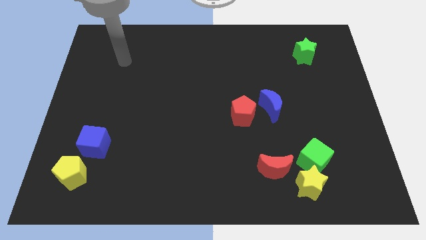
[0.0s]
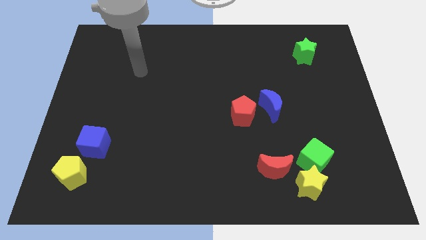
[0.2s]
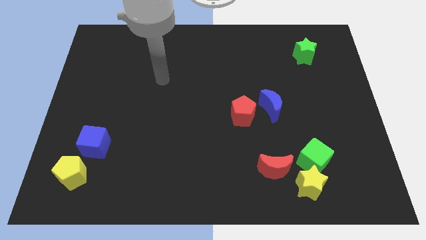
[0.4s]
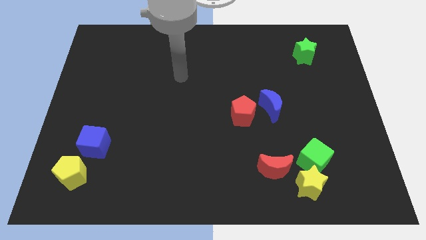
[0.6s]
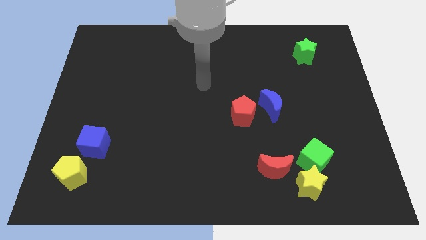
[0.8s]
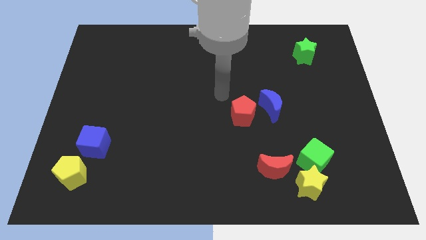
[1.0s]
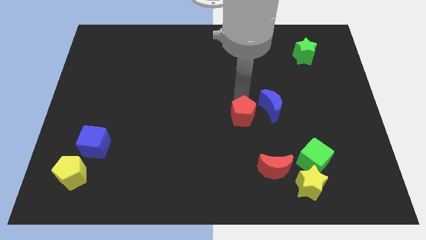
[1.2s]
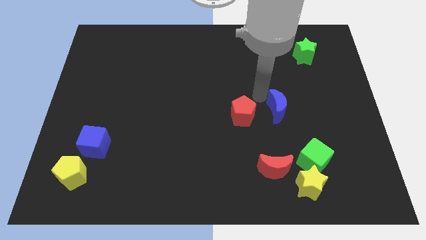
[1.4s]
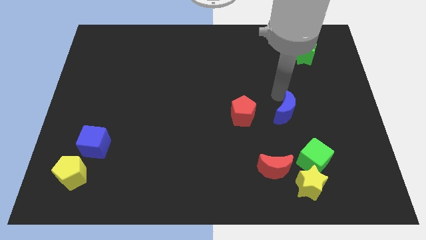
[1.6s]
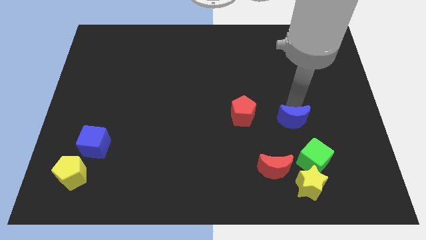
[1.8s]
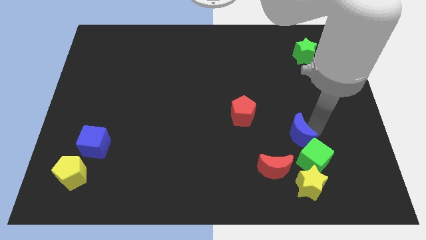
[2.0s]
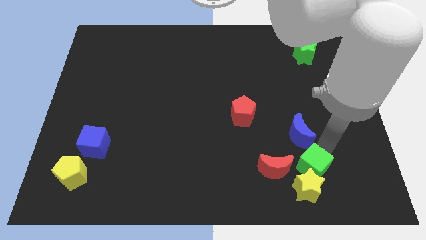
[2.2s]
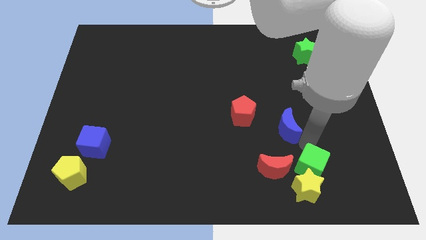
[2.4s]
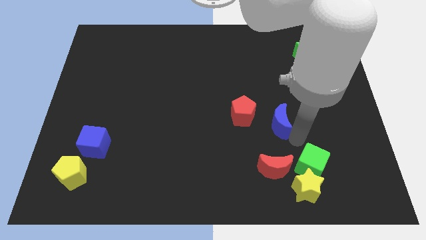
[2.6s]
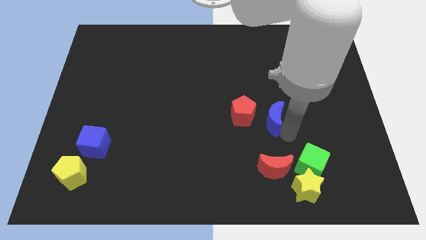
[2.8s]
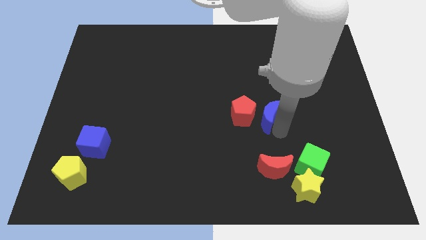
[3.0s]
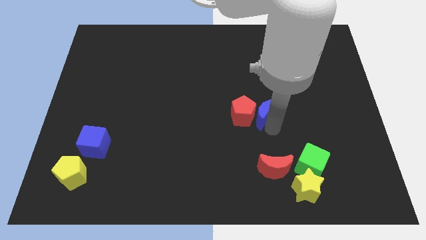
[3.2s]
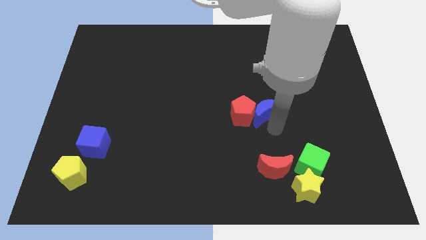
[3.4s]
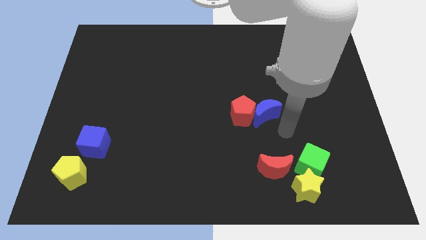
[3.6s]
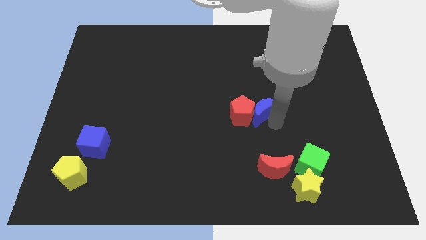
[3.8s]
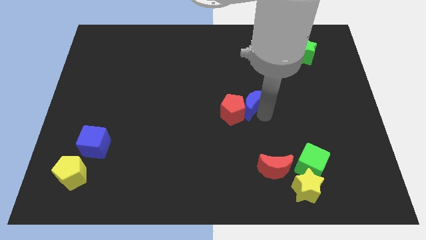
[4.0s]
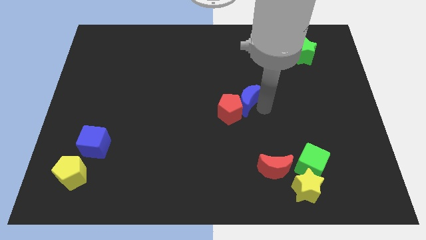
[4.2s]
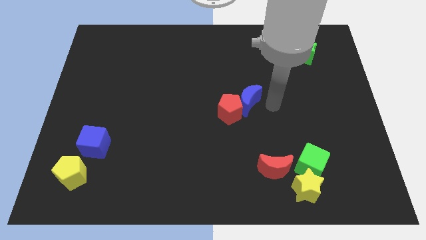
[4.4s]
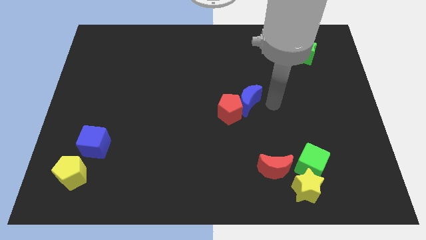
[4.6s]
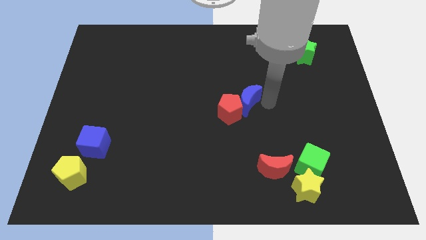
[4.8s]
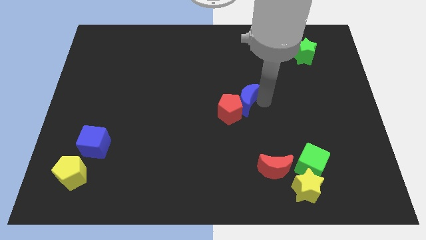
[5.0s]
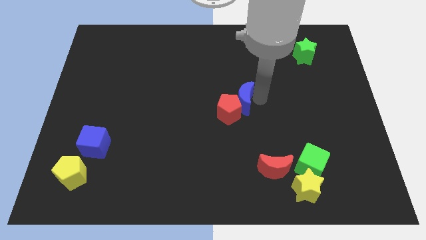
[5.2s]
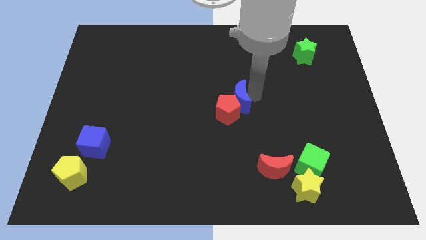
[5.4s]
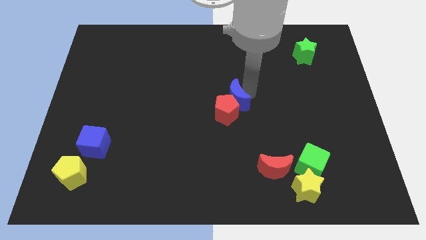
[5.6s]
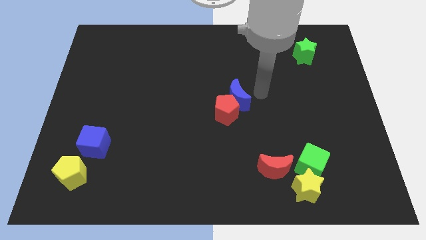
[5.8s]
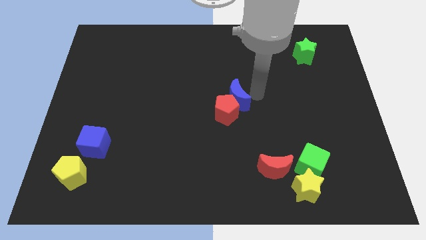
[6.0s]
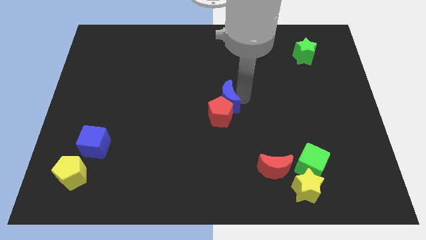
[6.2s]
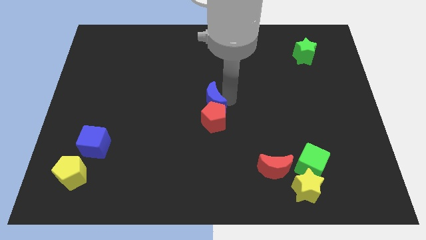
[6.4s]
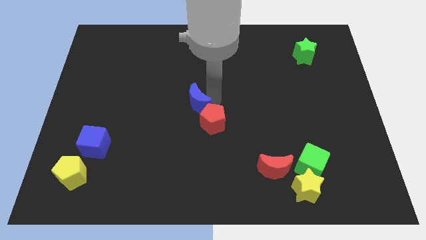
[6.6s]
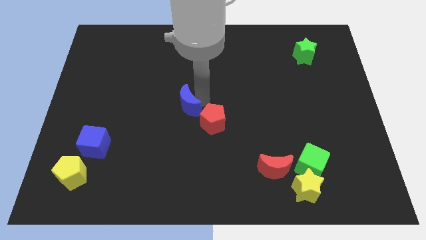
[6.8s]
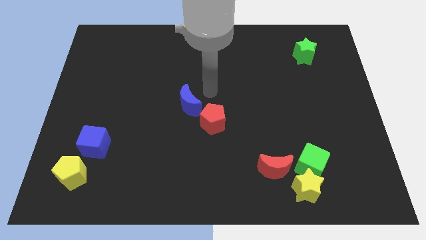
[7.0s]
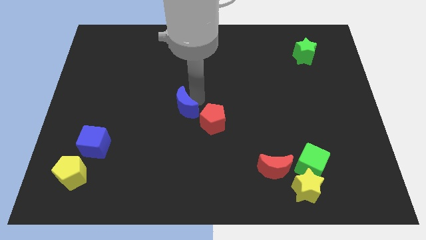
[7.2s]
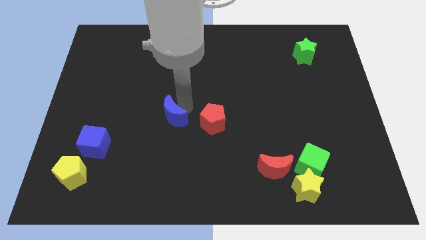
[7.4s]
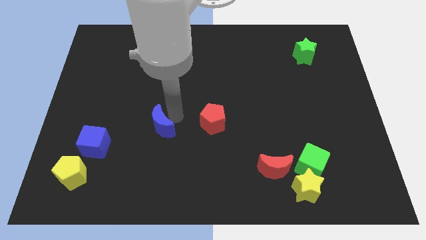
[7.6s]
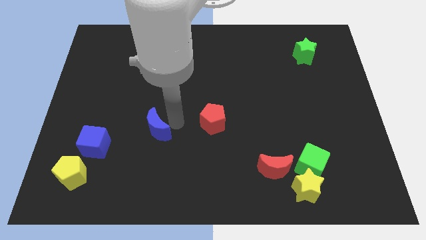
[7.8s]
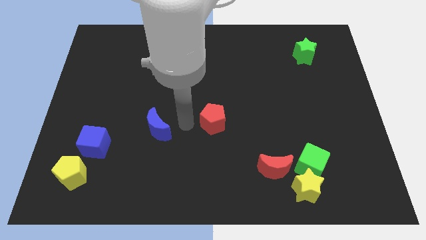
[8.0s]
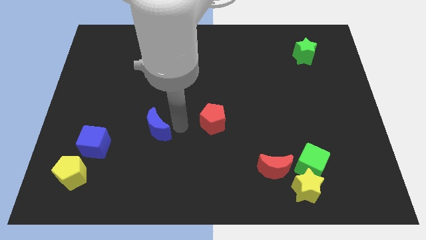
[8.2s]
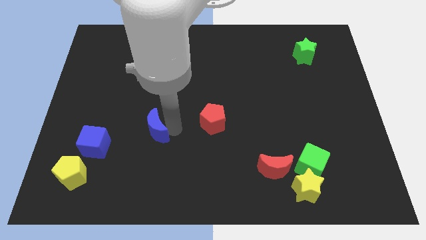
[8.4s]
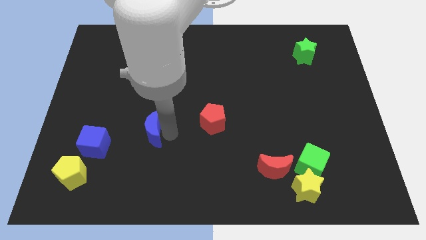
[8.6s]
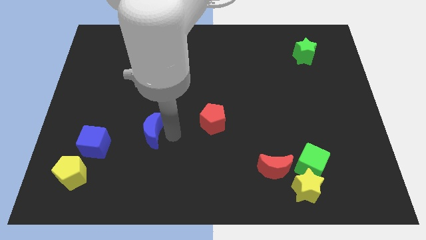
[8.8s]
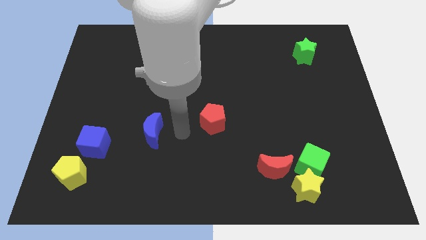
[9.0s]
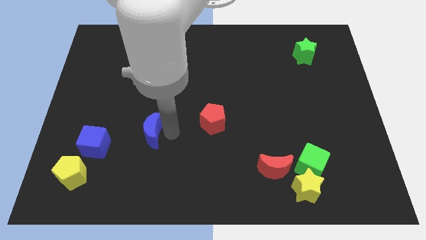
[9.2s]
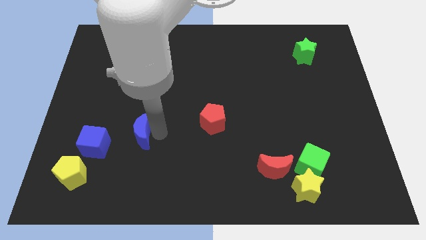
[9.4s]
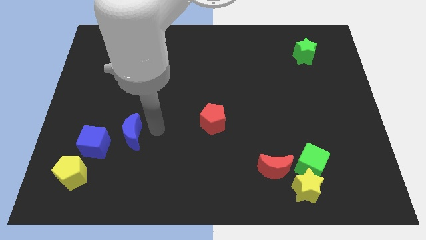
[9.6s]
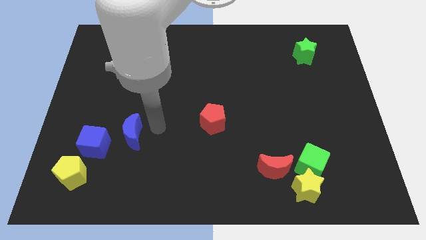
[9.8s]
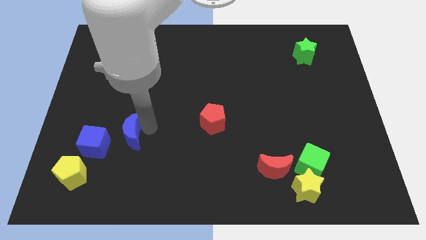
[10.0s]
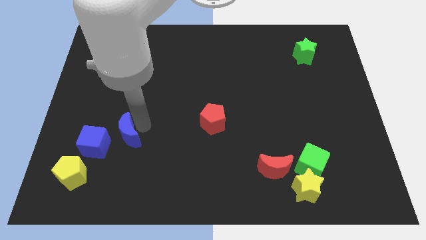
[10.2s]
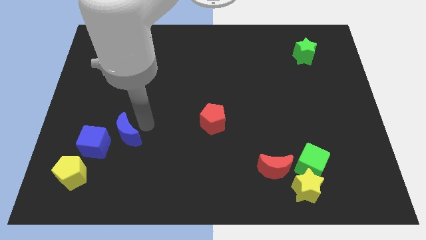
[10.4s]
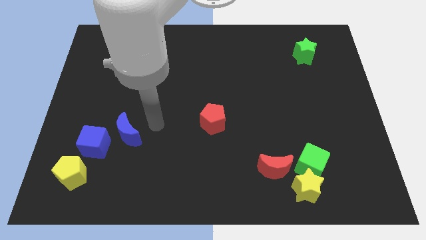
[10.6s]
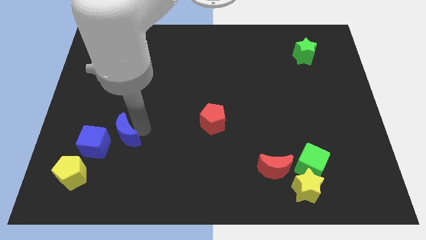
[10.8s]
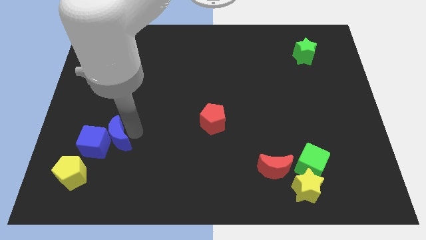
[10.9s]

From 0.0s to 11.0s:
slide the blue moon next to the blue cube

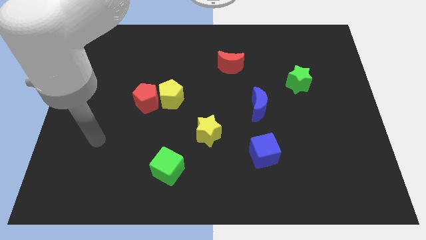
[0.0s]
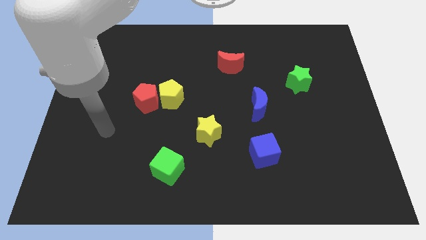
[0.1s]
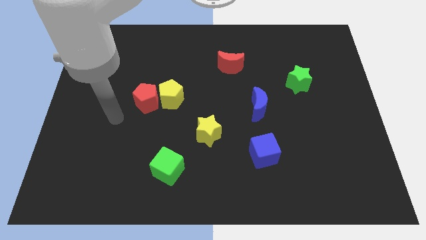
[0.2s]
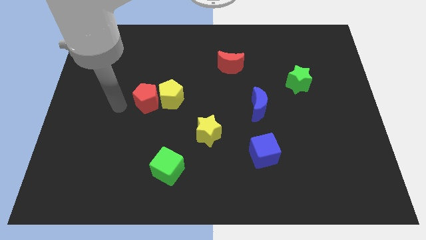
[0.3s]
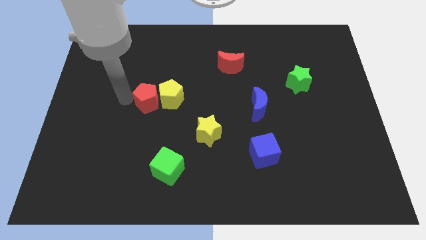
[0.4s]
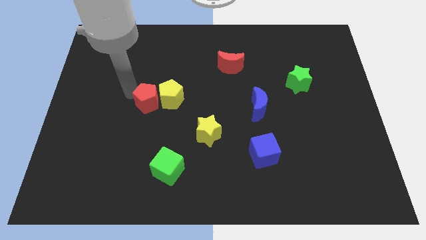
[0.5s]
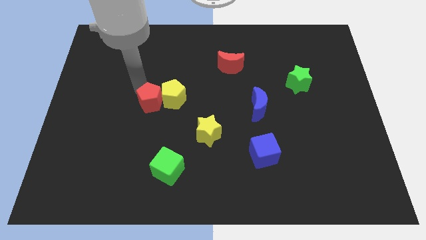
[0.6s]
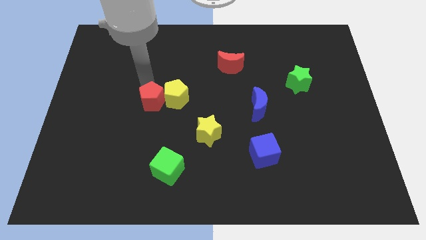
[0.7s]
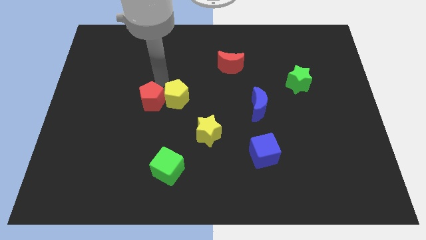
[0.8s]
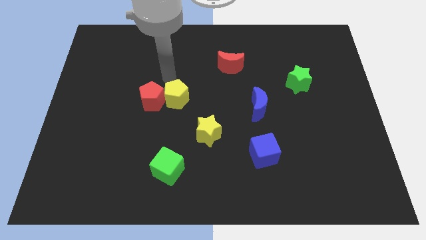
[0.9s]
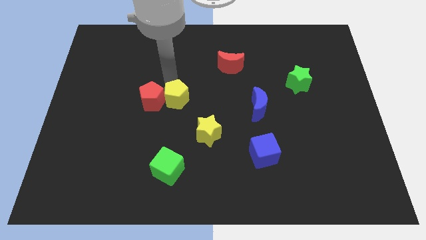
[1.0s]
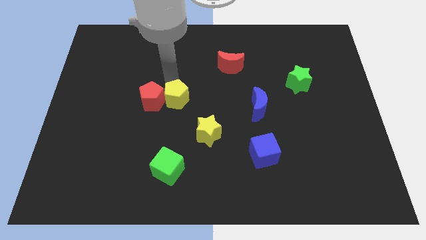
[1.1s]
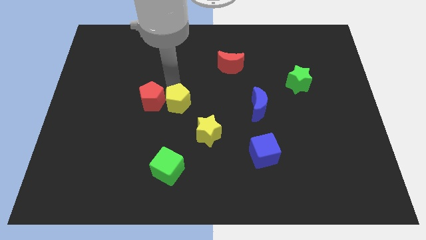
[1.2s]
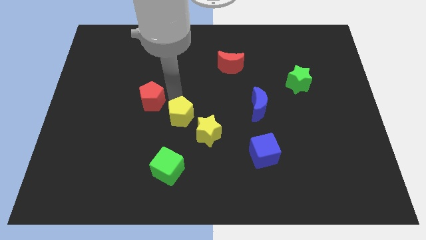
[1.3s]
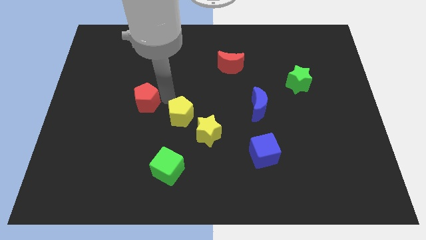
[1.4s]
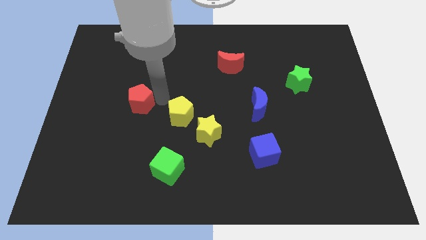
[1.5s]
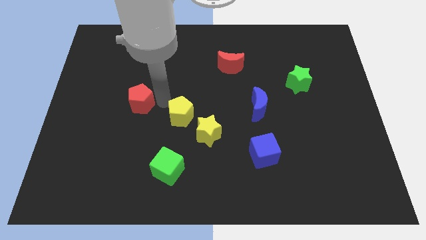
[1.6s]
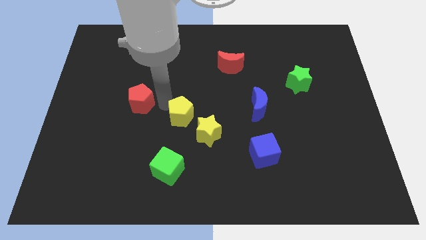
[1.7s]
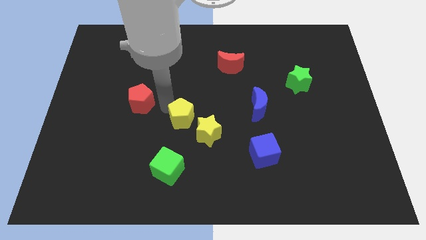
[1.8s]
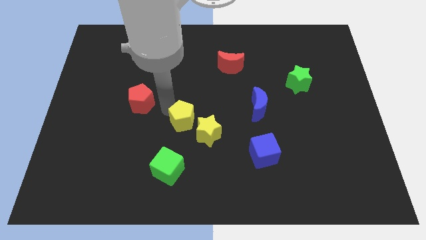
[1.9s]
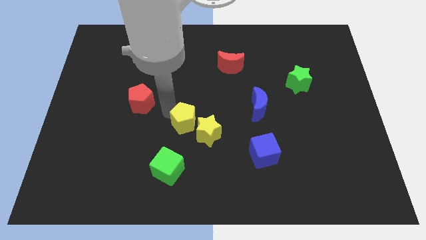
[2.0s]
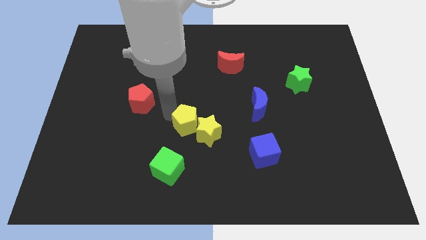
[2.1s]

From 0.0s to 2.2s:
move the yellow pentagon to the yellow star
